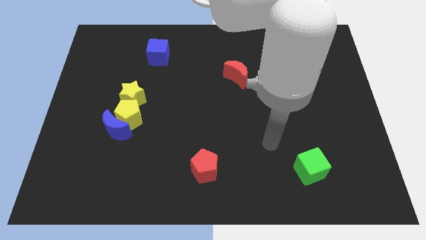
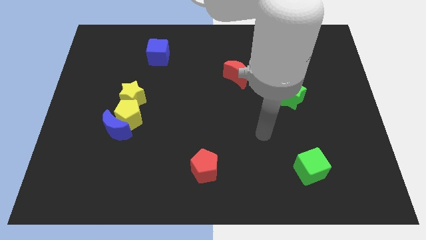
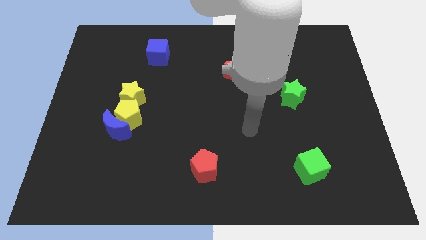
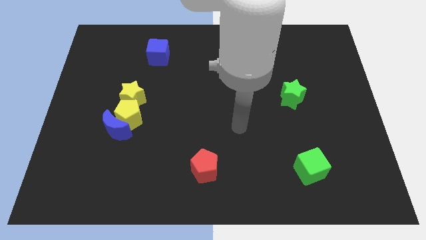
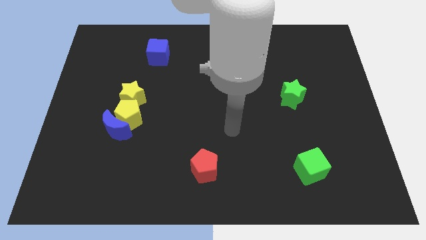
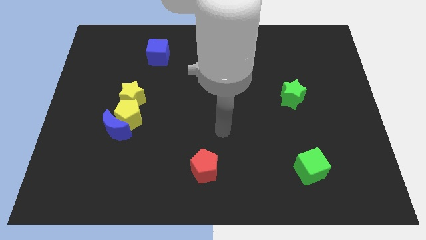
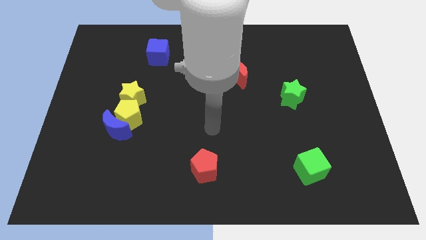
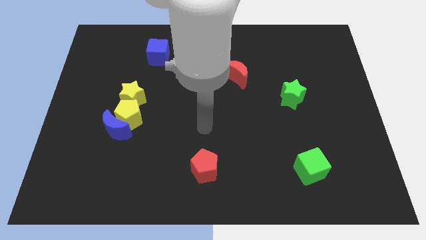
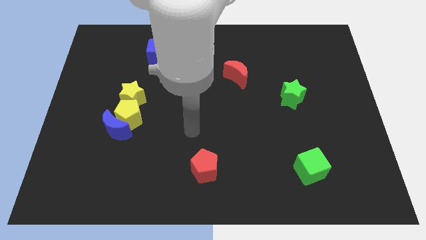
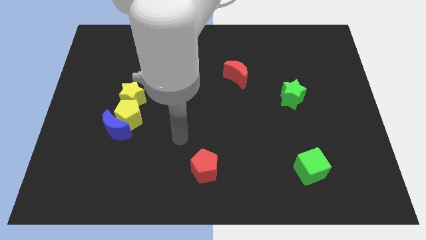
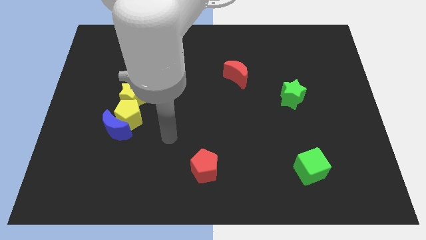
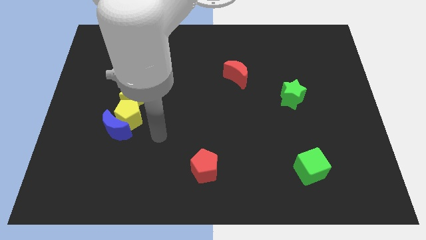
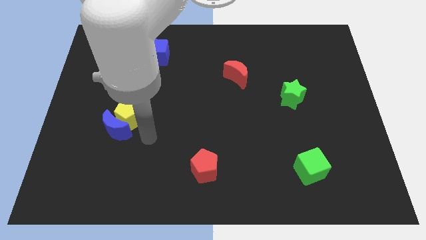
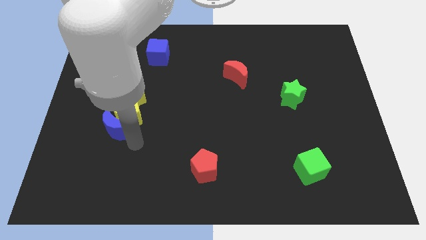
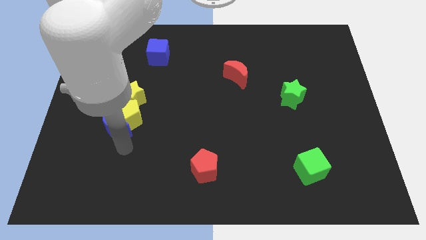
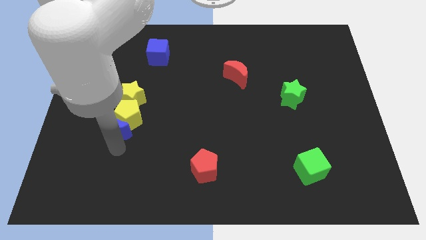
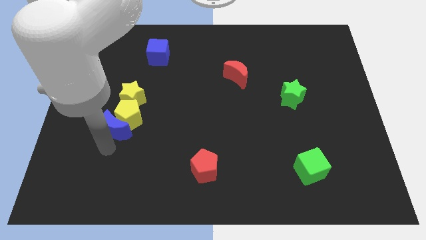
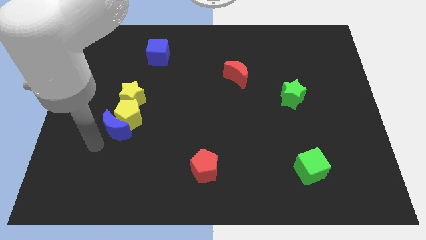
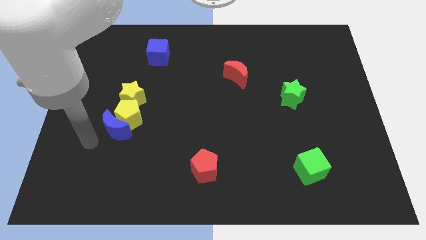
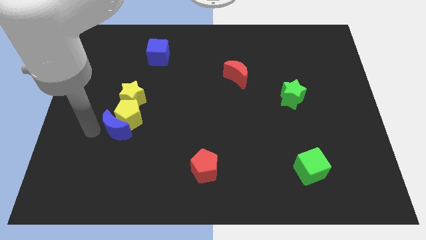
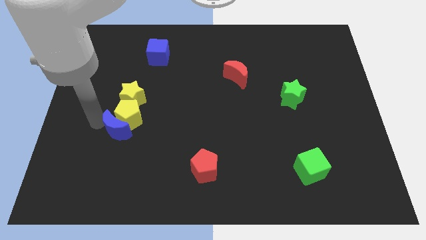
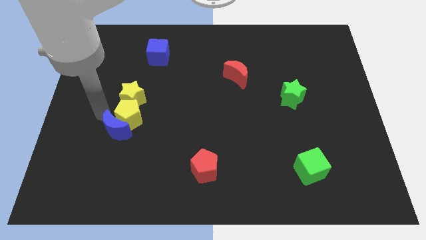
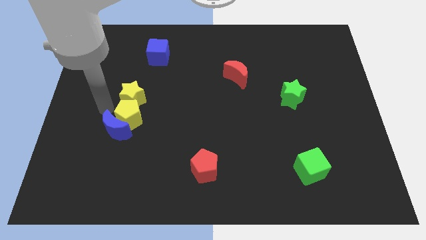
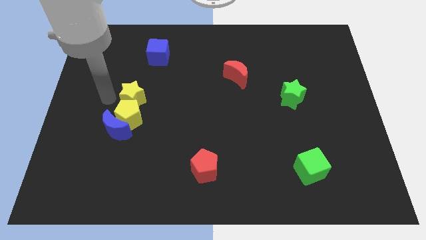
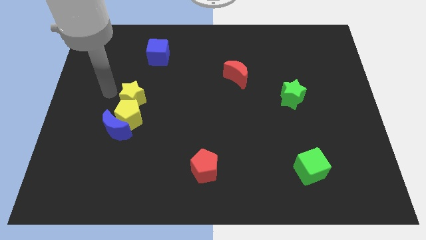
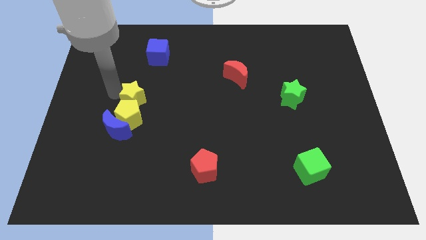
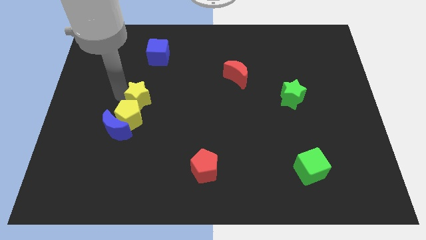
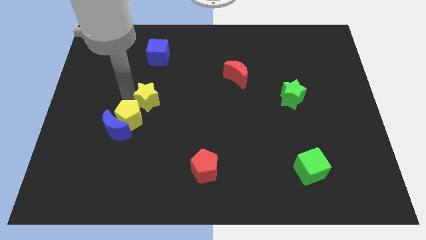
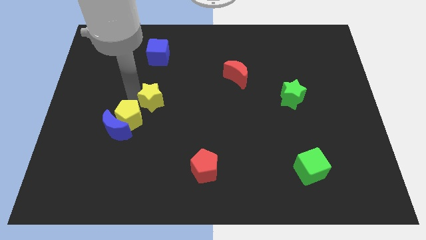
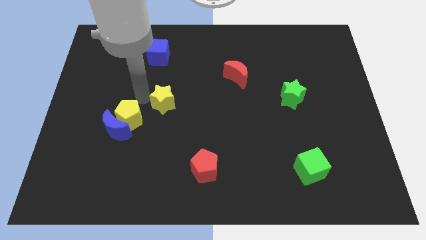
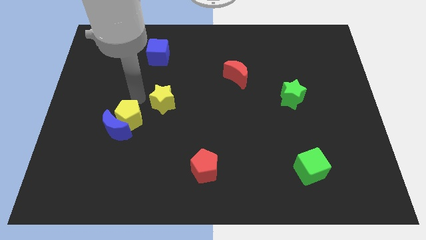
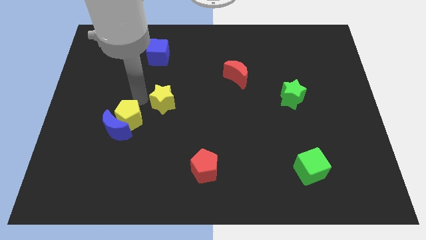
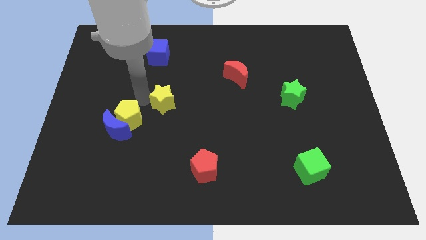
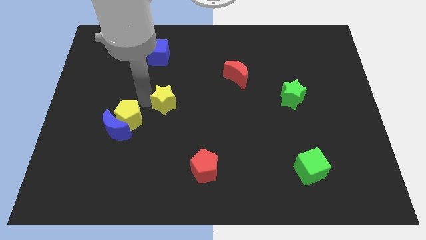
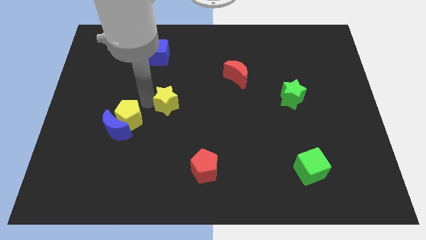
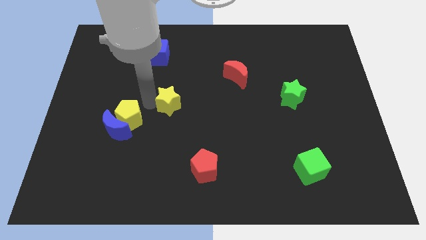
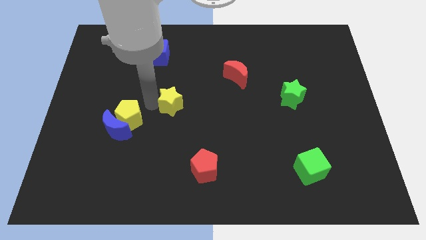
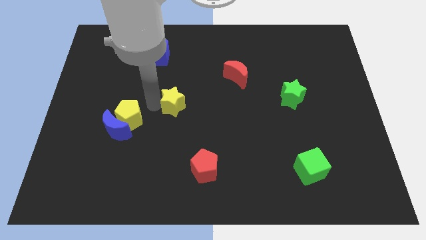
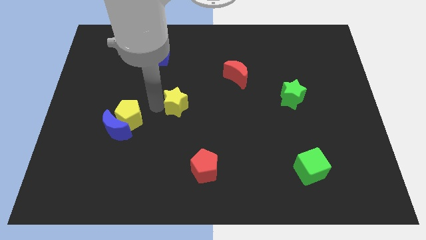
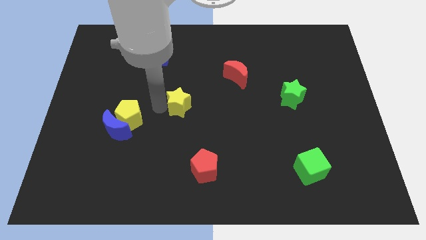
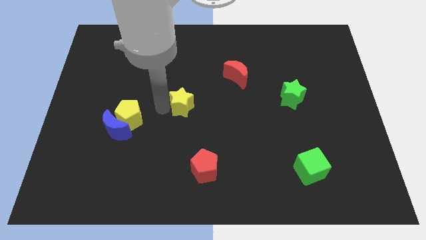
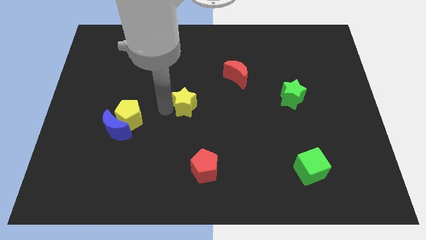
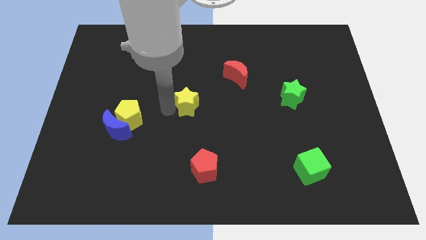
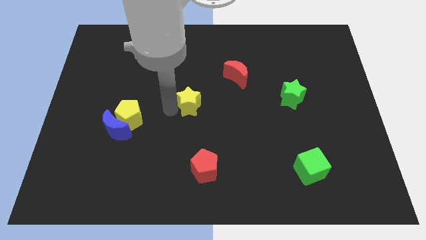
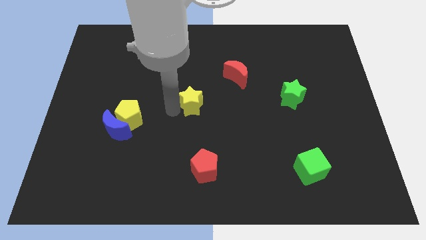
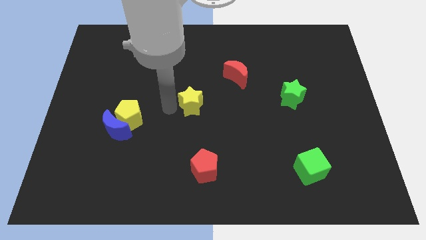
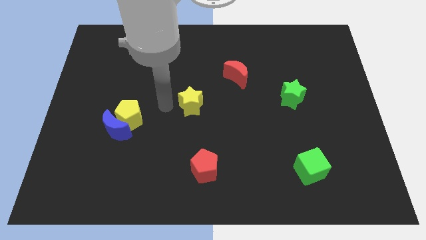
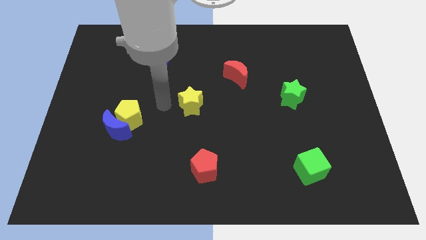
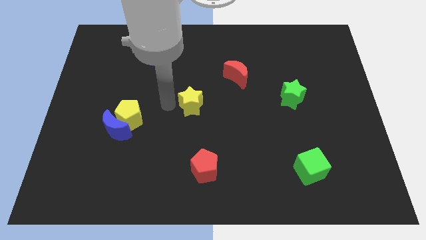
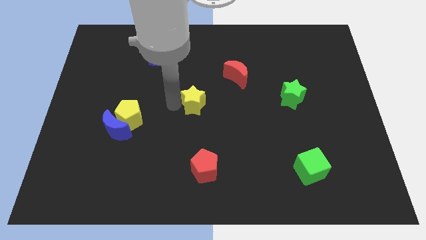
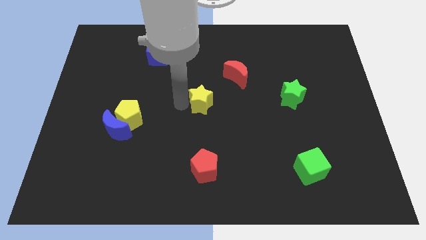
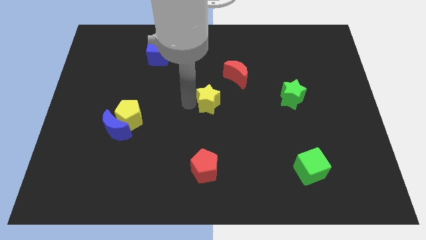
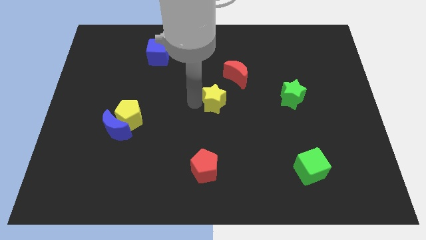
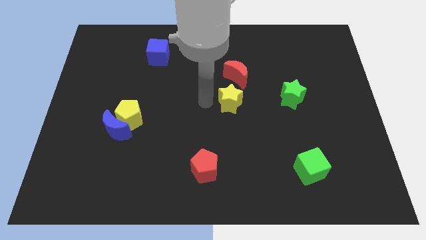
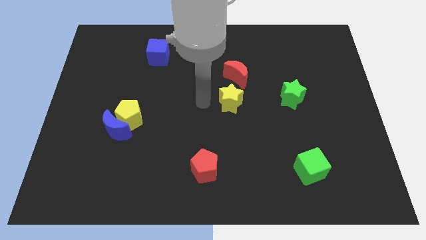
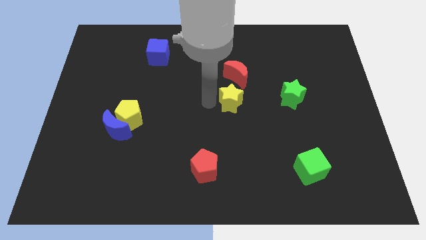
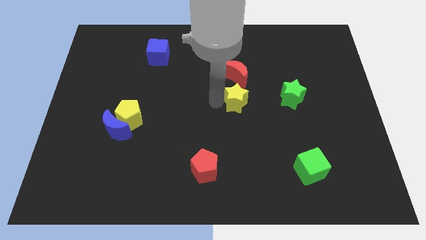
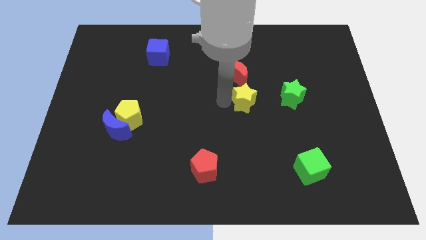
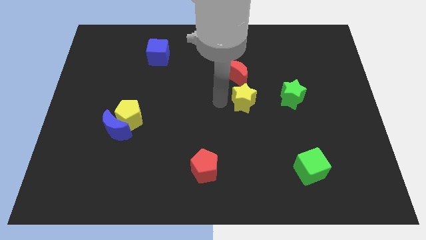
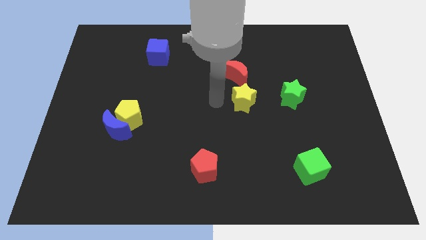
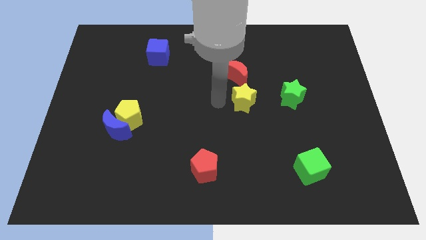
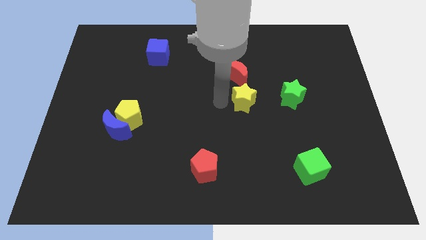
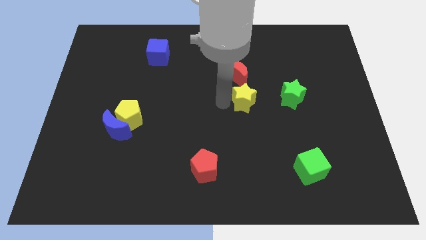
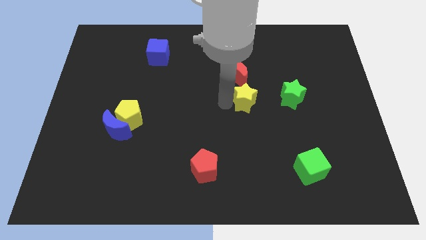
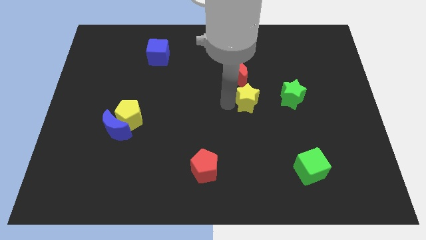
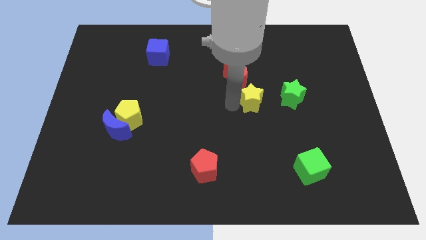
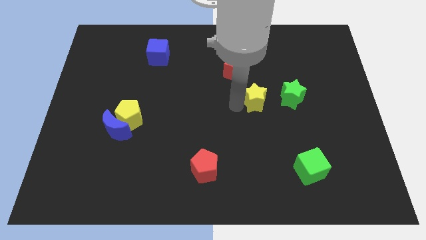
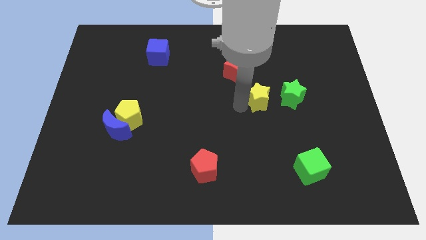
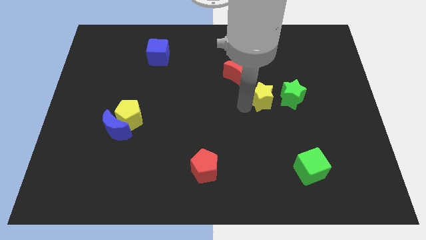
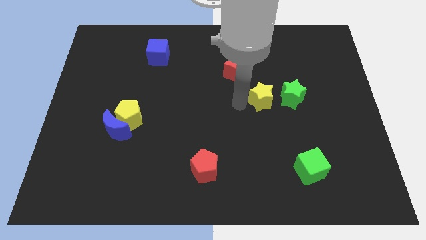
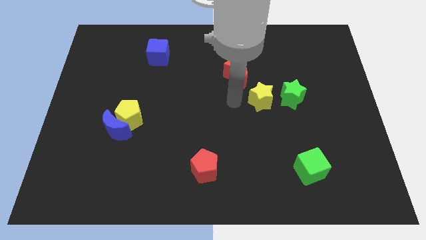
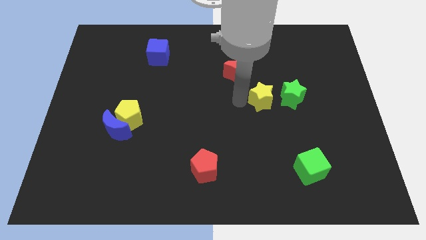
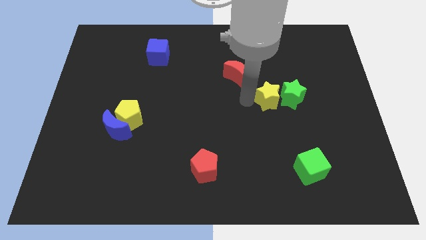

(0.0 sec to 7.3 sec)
put the yellow star towards the green star
